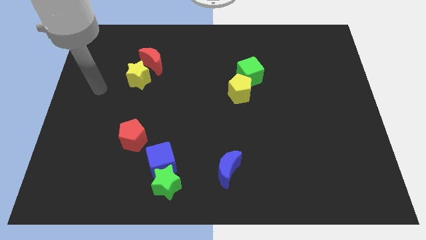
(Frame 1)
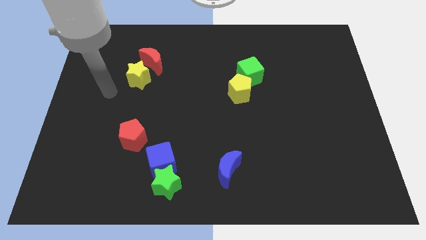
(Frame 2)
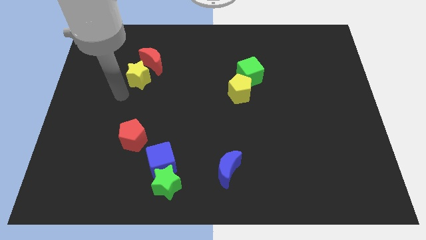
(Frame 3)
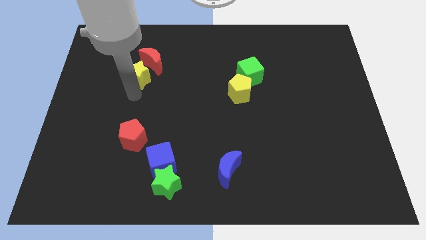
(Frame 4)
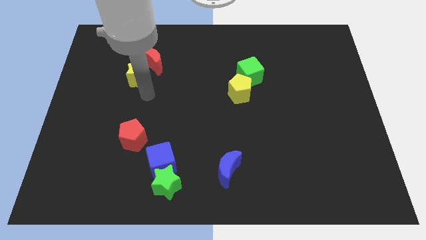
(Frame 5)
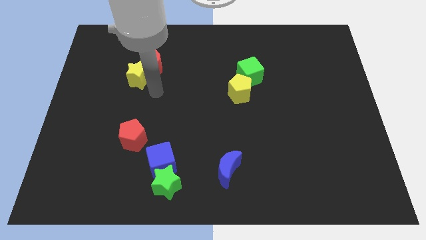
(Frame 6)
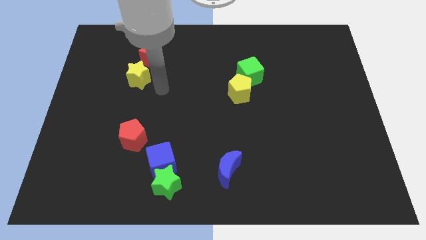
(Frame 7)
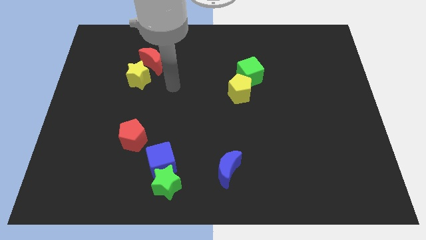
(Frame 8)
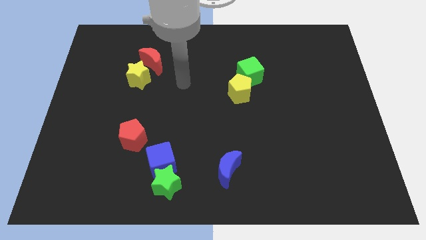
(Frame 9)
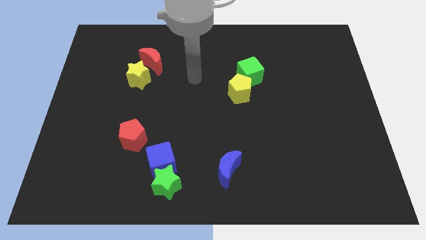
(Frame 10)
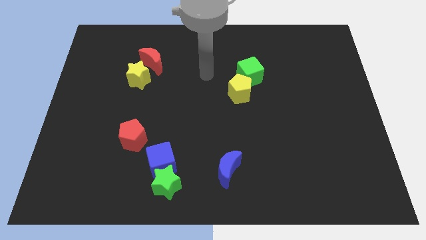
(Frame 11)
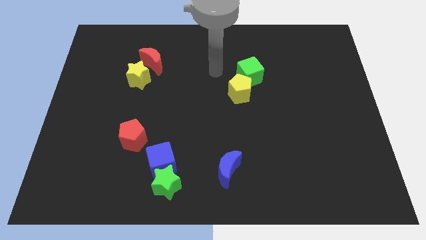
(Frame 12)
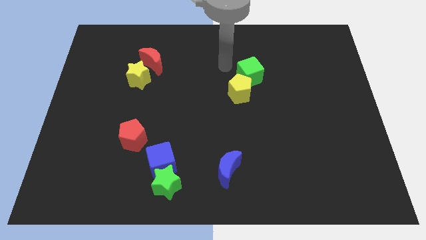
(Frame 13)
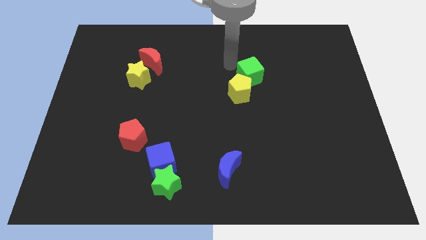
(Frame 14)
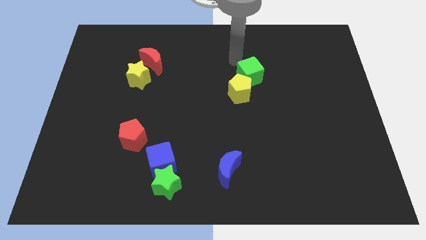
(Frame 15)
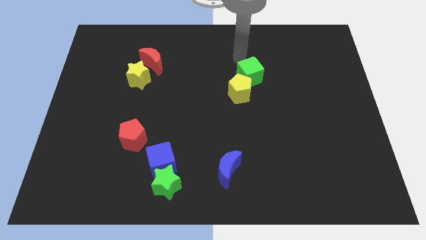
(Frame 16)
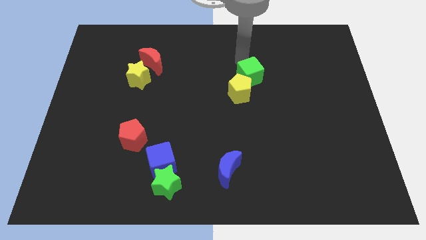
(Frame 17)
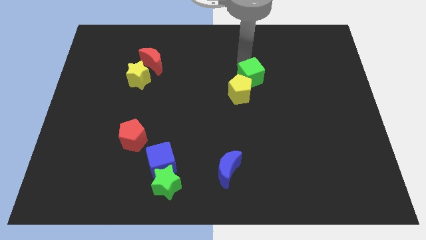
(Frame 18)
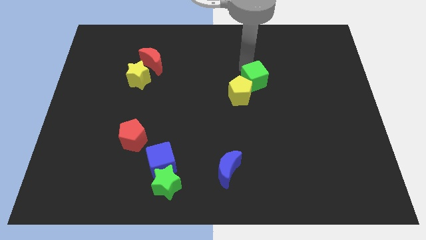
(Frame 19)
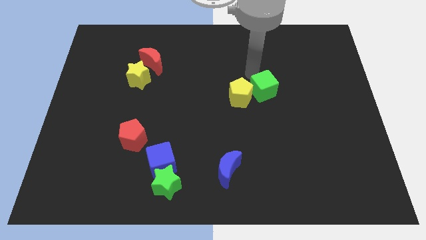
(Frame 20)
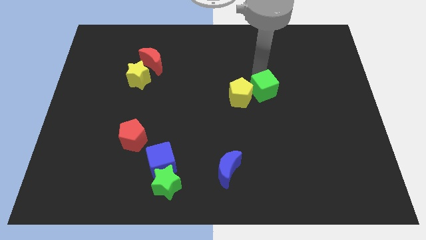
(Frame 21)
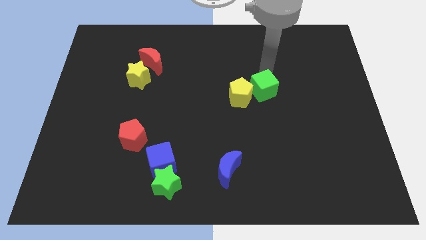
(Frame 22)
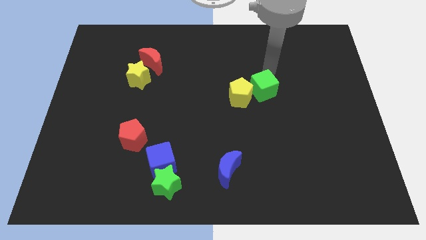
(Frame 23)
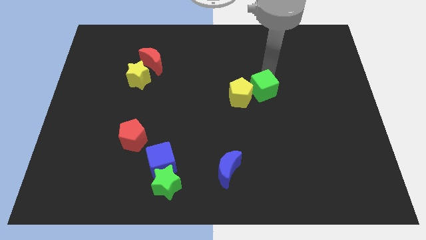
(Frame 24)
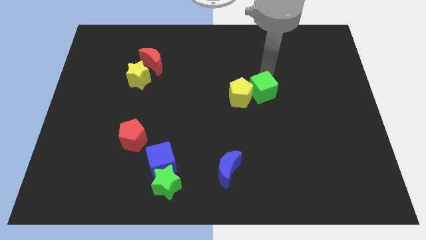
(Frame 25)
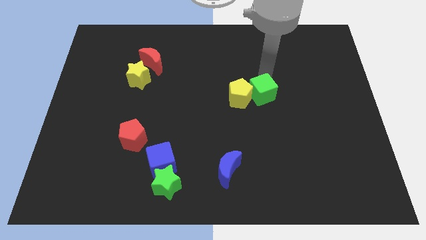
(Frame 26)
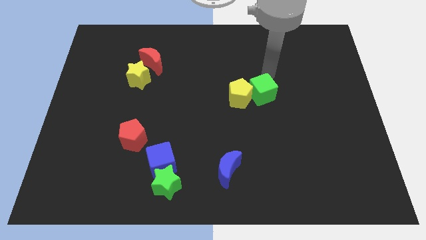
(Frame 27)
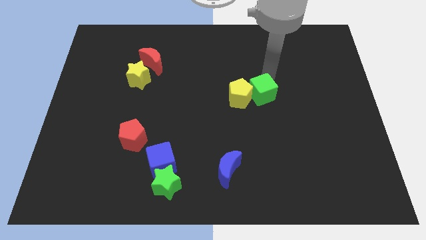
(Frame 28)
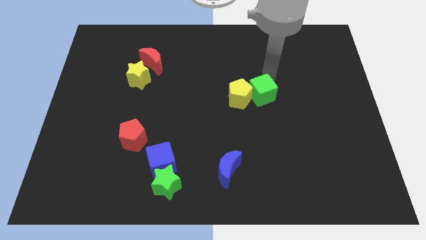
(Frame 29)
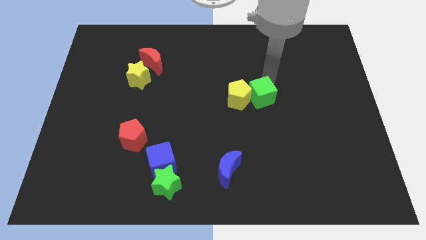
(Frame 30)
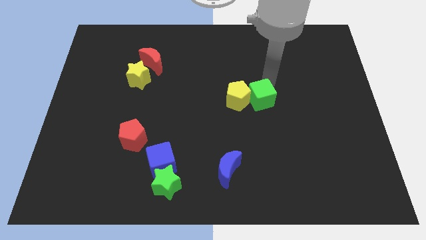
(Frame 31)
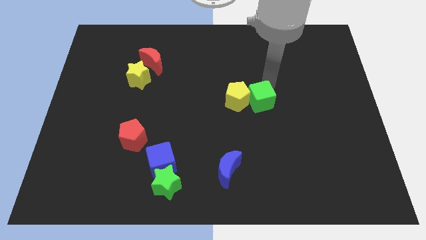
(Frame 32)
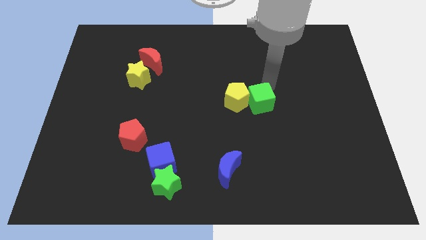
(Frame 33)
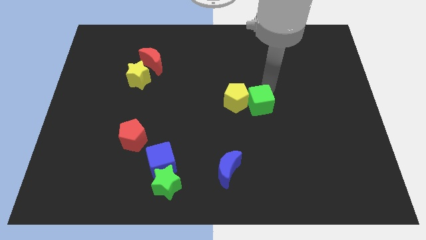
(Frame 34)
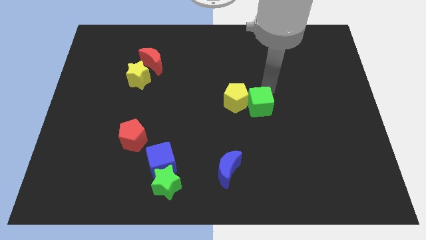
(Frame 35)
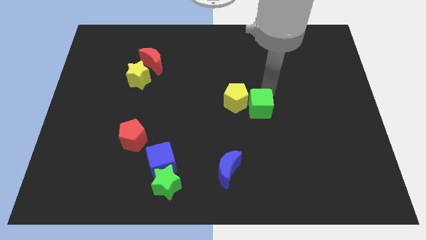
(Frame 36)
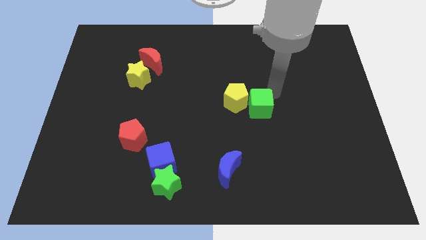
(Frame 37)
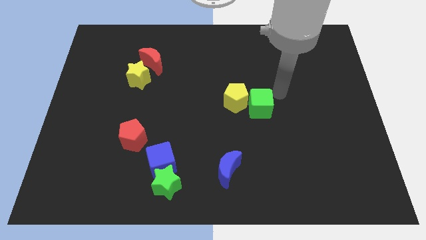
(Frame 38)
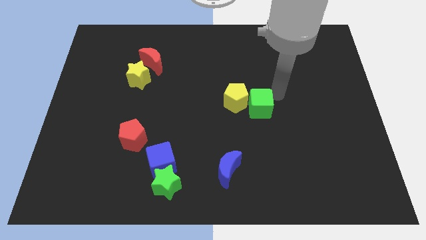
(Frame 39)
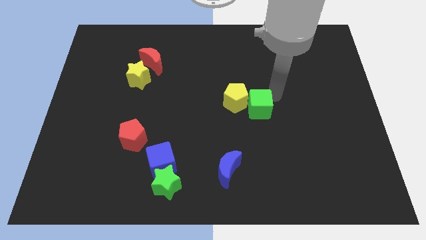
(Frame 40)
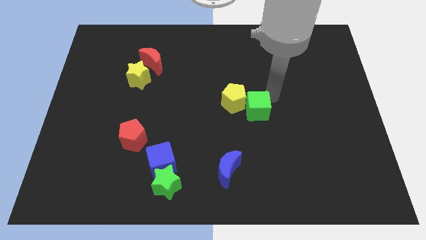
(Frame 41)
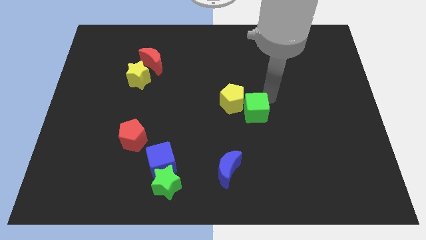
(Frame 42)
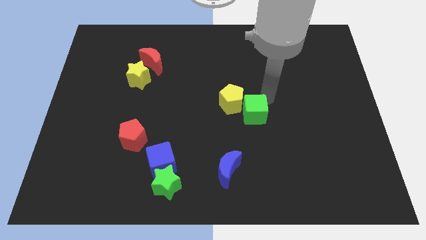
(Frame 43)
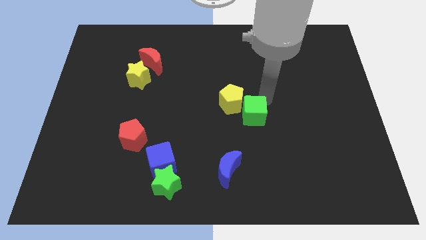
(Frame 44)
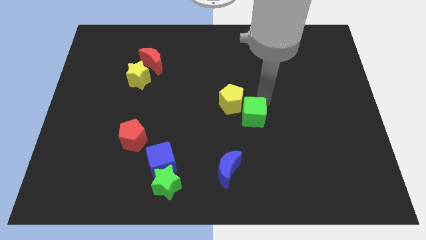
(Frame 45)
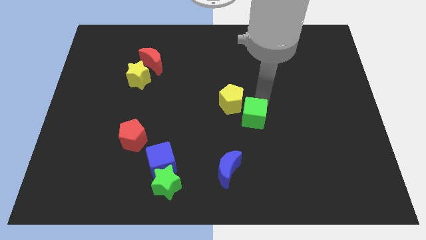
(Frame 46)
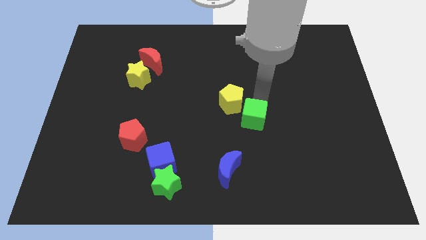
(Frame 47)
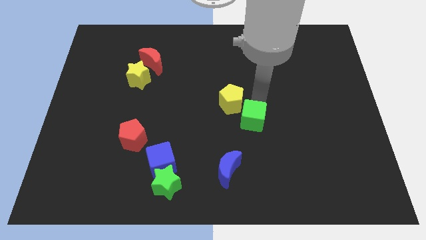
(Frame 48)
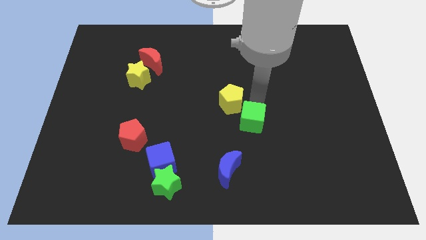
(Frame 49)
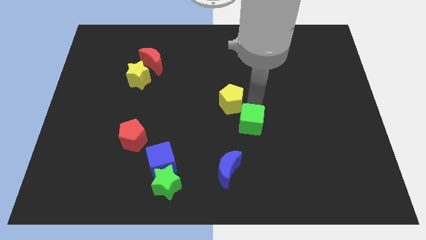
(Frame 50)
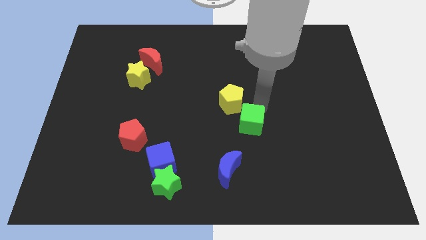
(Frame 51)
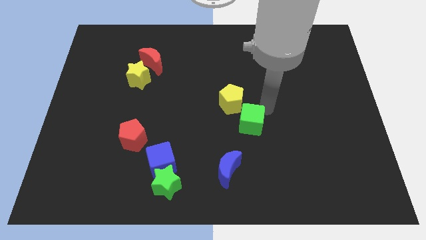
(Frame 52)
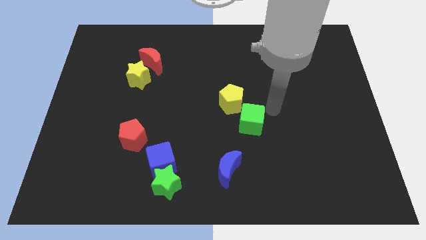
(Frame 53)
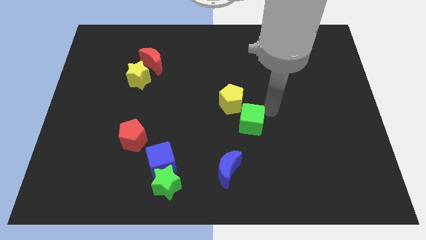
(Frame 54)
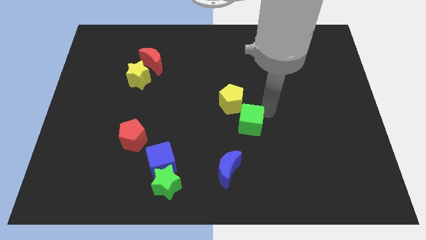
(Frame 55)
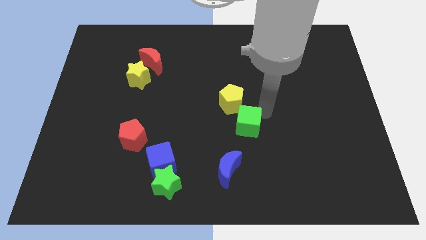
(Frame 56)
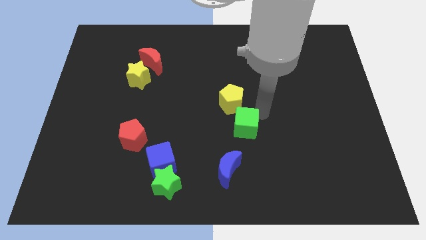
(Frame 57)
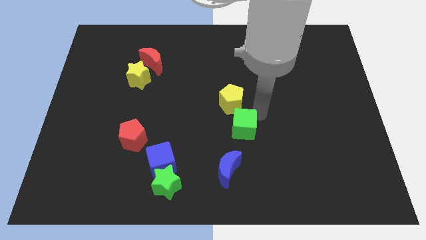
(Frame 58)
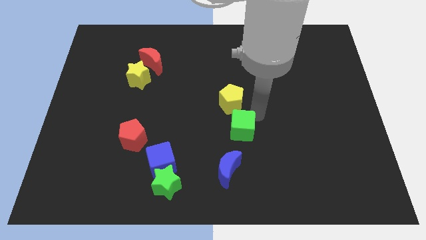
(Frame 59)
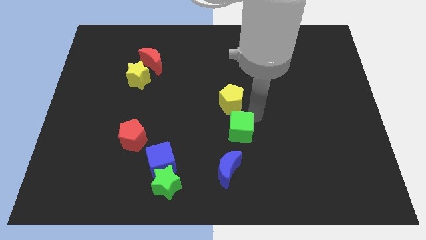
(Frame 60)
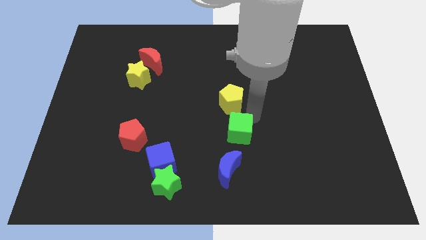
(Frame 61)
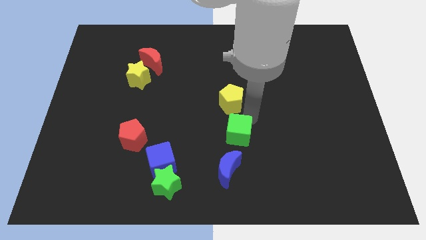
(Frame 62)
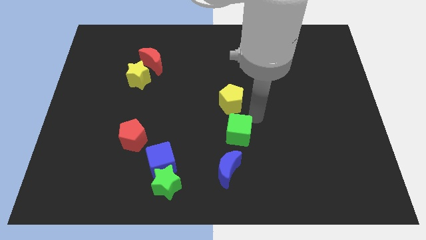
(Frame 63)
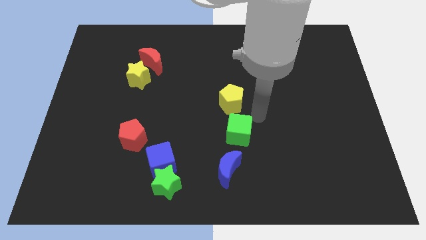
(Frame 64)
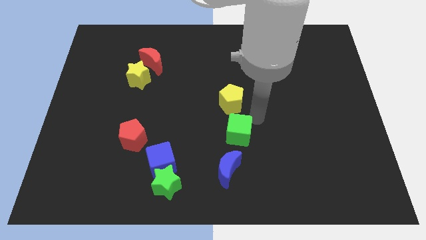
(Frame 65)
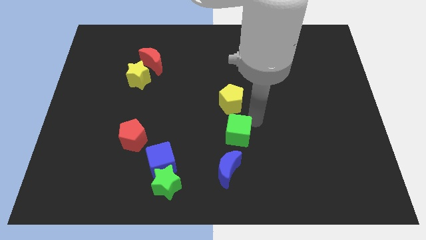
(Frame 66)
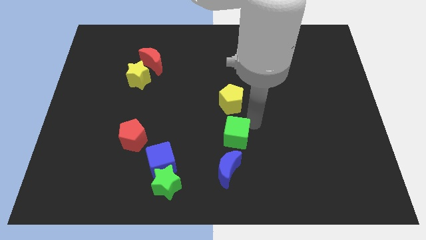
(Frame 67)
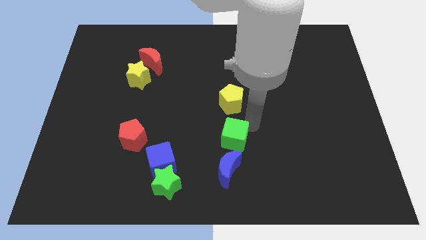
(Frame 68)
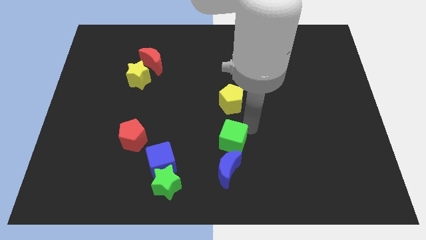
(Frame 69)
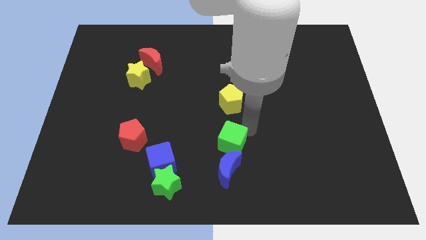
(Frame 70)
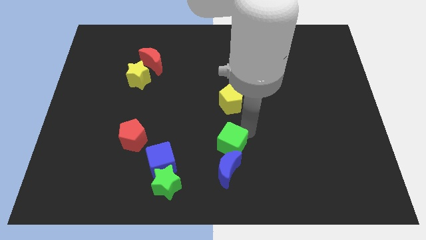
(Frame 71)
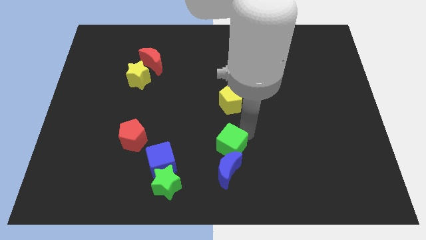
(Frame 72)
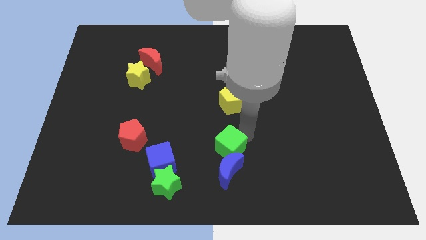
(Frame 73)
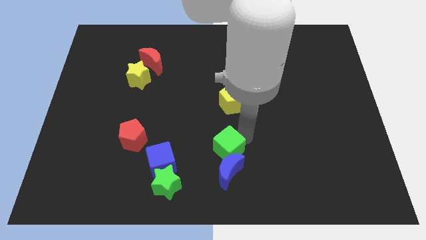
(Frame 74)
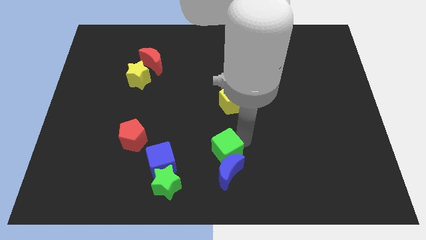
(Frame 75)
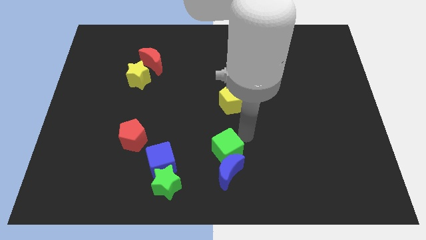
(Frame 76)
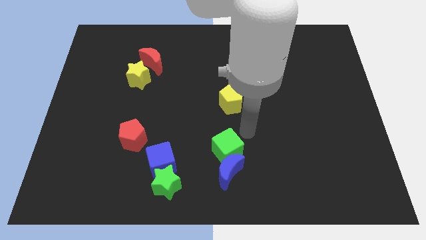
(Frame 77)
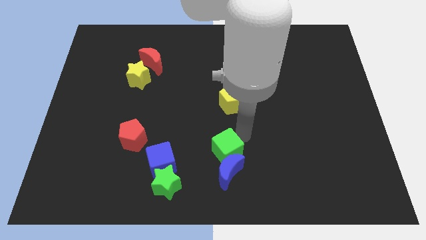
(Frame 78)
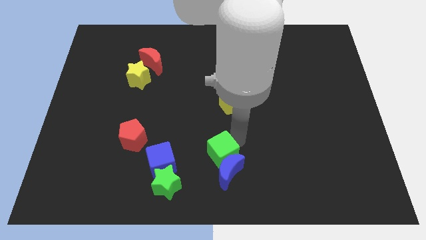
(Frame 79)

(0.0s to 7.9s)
put the green cube to the bottom side
